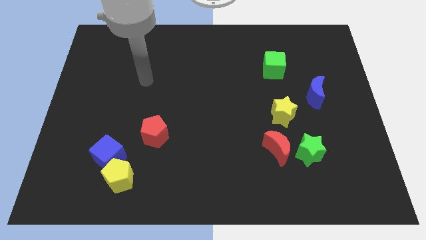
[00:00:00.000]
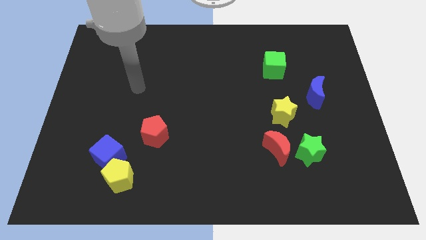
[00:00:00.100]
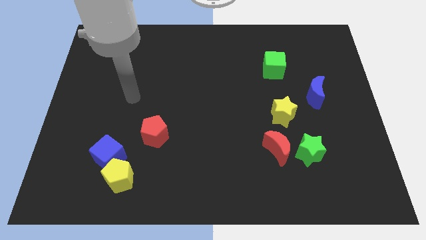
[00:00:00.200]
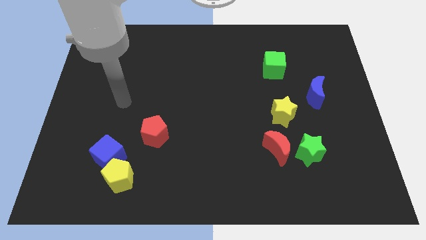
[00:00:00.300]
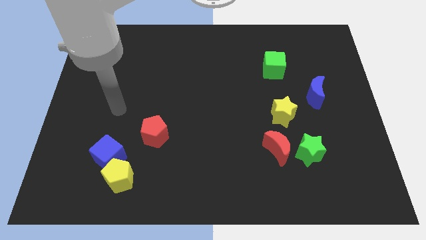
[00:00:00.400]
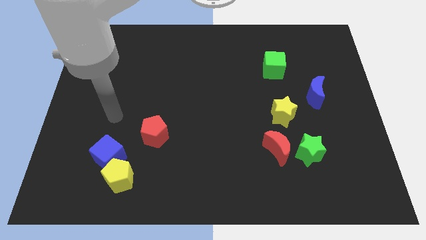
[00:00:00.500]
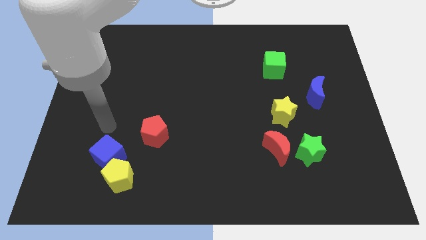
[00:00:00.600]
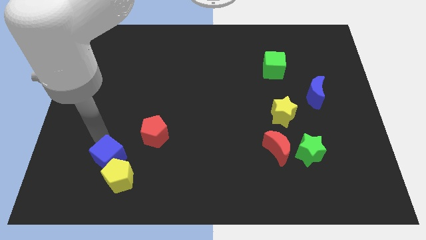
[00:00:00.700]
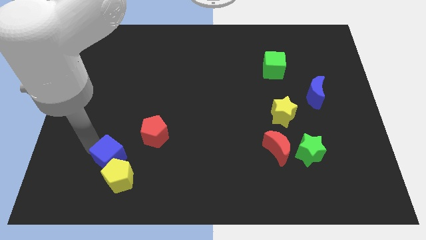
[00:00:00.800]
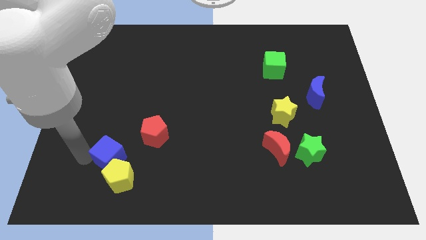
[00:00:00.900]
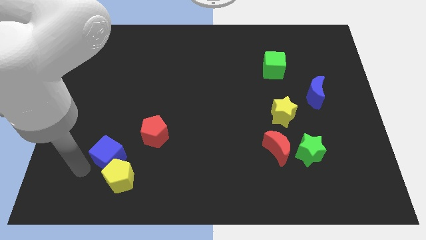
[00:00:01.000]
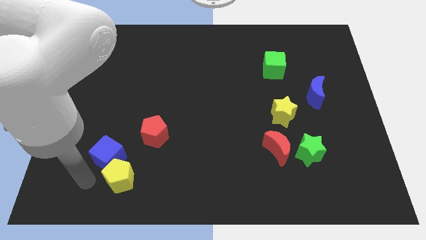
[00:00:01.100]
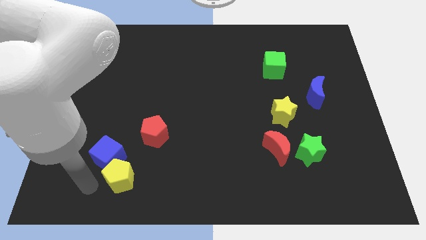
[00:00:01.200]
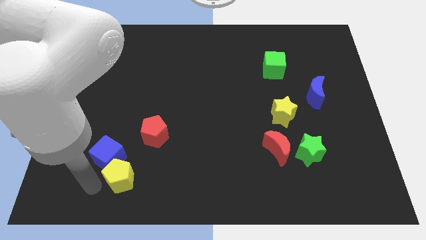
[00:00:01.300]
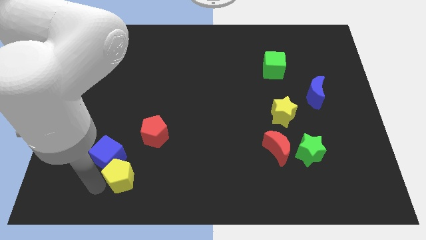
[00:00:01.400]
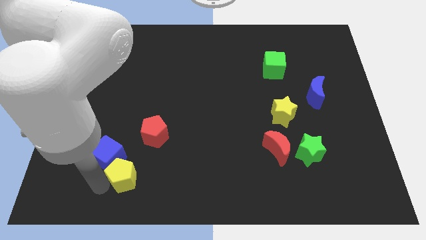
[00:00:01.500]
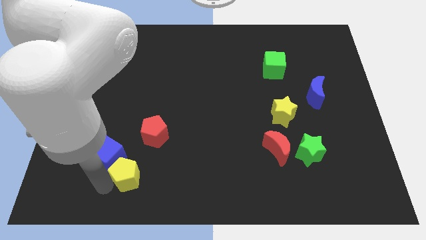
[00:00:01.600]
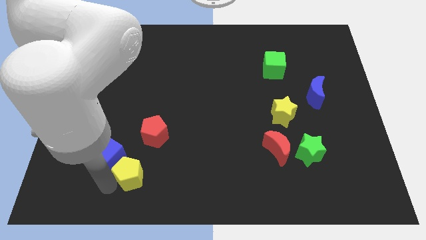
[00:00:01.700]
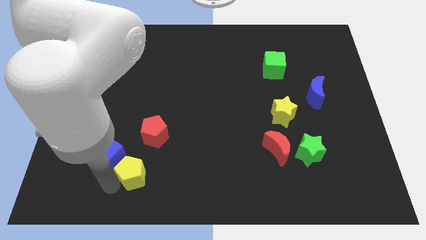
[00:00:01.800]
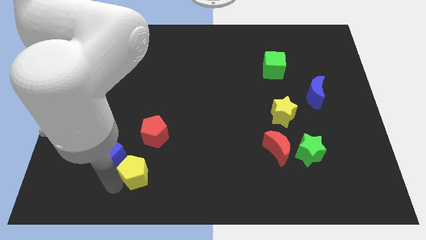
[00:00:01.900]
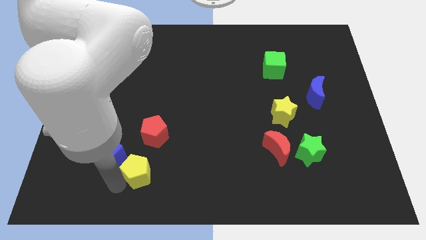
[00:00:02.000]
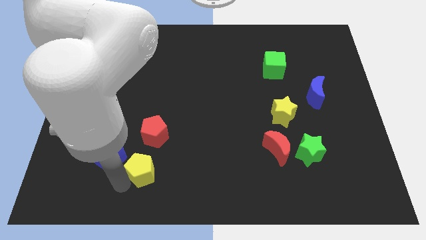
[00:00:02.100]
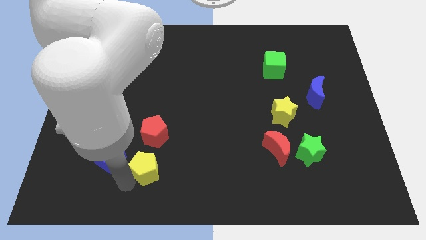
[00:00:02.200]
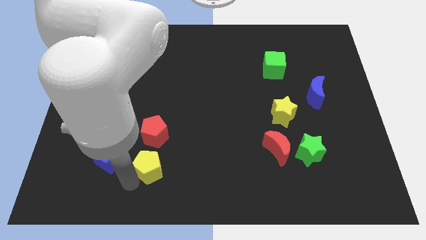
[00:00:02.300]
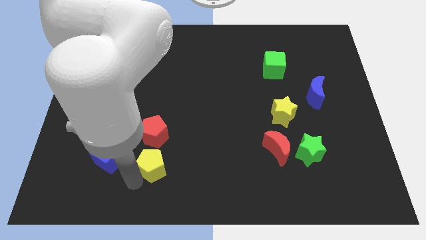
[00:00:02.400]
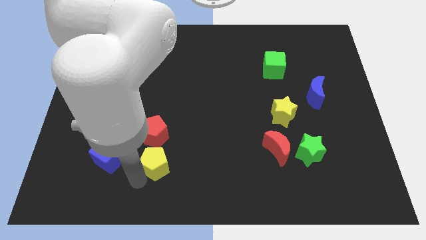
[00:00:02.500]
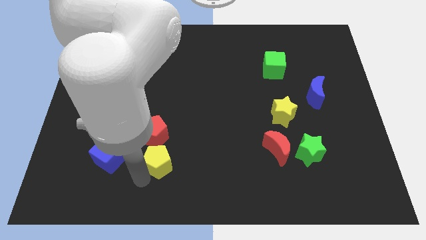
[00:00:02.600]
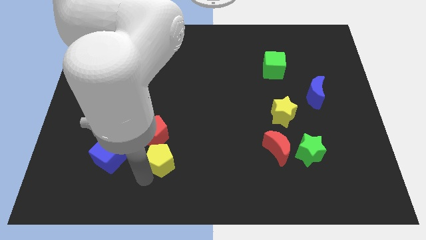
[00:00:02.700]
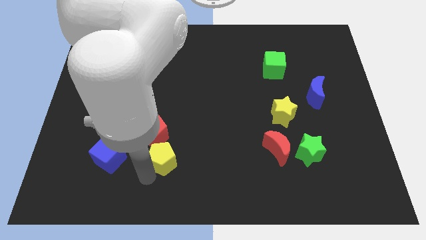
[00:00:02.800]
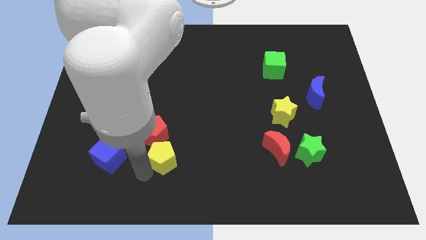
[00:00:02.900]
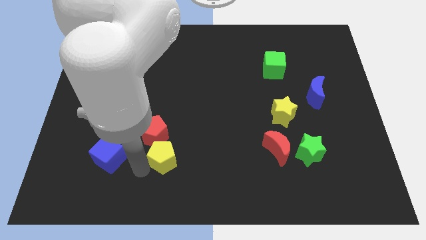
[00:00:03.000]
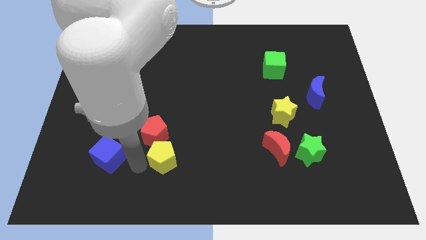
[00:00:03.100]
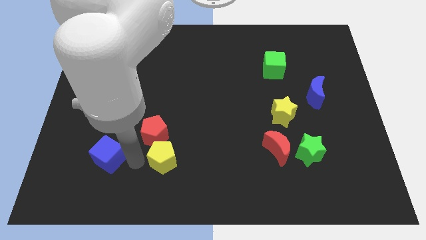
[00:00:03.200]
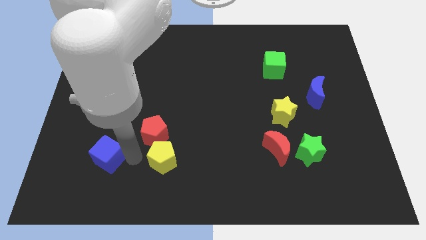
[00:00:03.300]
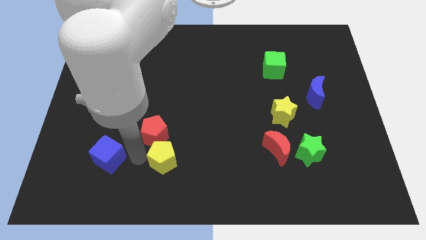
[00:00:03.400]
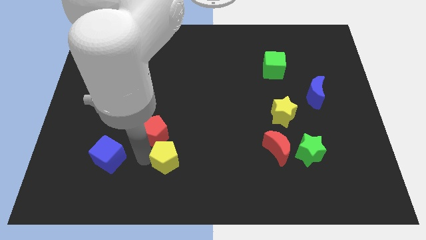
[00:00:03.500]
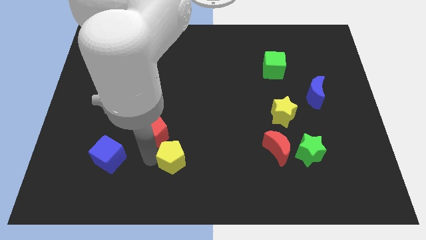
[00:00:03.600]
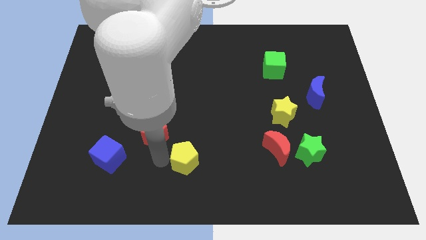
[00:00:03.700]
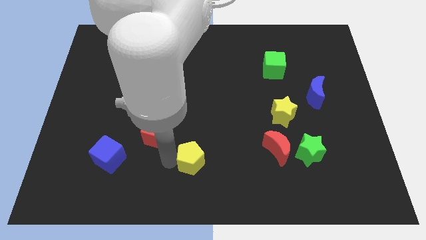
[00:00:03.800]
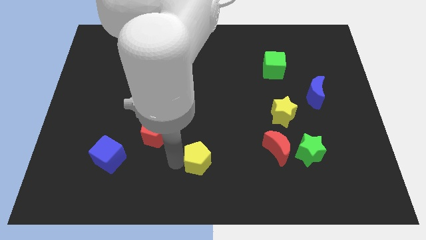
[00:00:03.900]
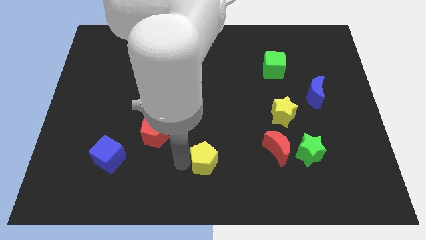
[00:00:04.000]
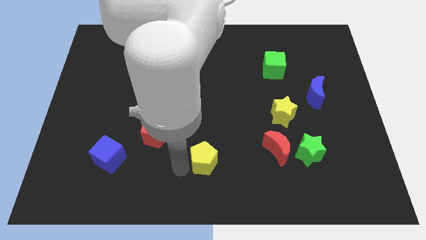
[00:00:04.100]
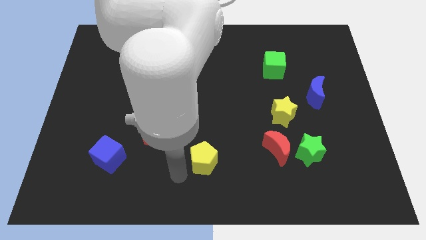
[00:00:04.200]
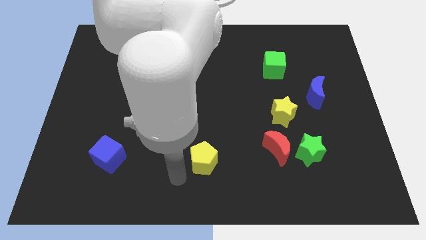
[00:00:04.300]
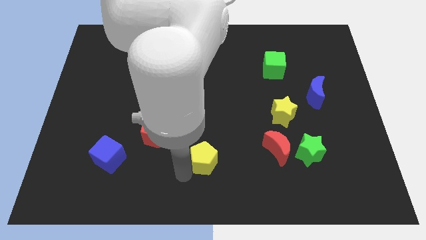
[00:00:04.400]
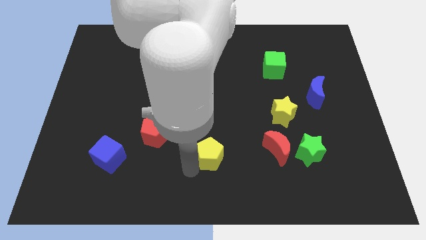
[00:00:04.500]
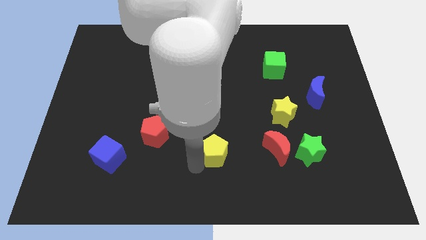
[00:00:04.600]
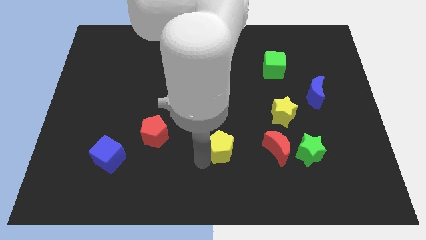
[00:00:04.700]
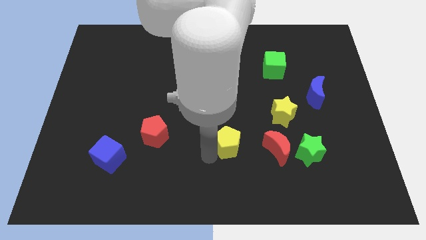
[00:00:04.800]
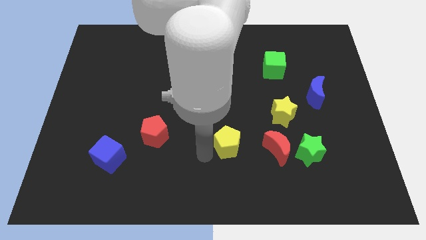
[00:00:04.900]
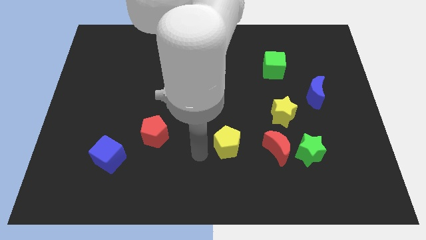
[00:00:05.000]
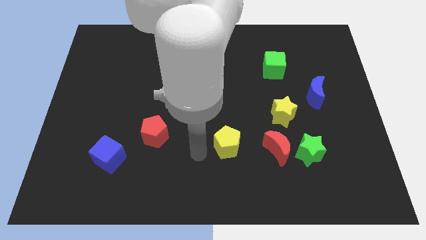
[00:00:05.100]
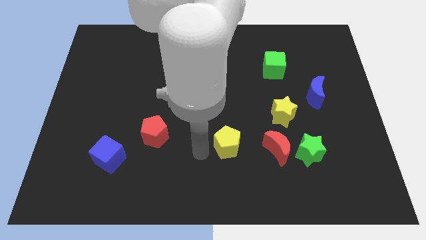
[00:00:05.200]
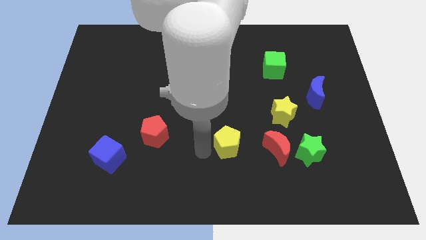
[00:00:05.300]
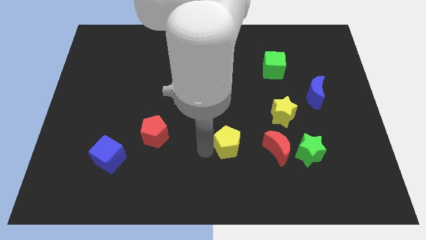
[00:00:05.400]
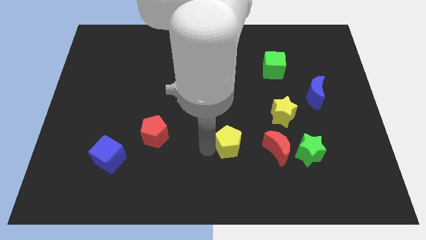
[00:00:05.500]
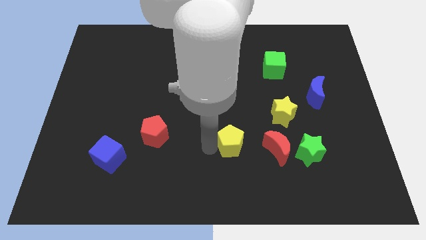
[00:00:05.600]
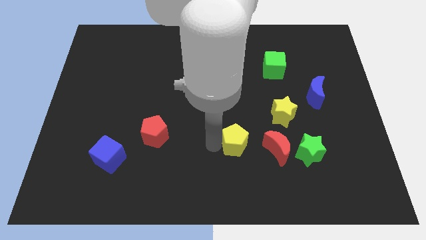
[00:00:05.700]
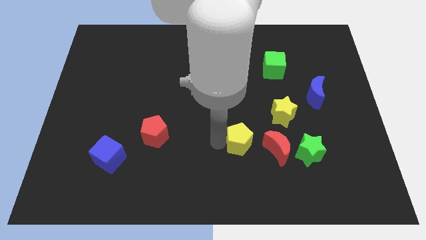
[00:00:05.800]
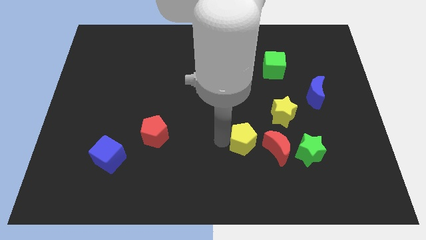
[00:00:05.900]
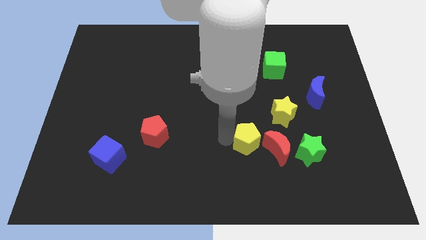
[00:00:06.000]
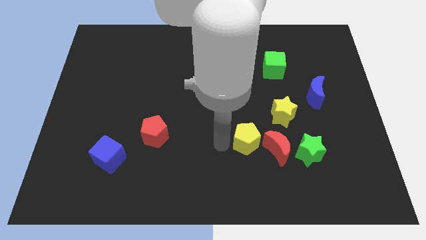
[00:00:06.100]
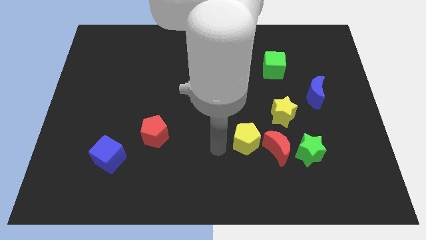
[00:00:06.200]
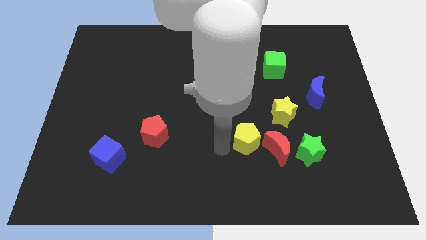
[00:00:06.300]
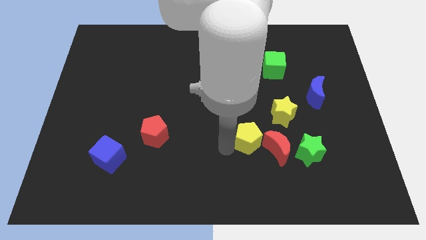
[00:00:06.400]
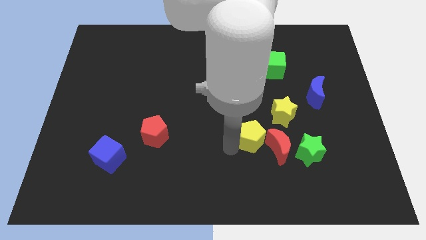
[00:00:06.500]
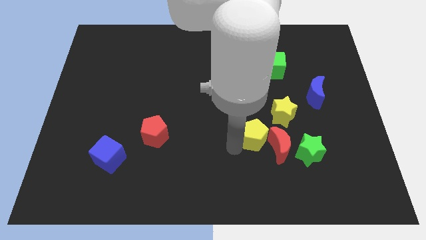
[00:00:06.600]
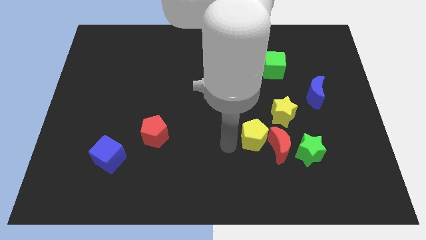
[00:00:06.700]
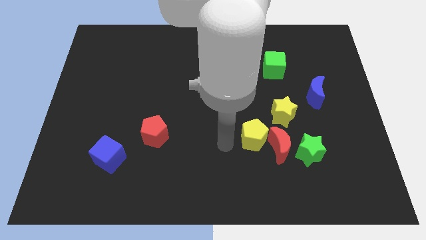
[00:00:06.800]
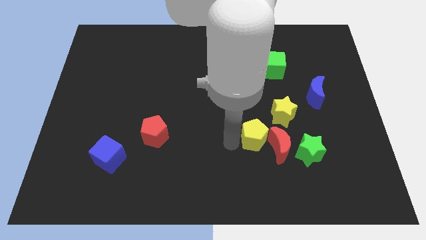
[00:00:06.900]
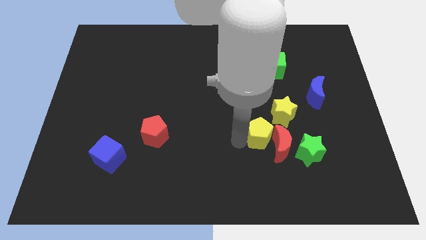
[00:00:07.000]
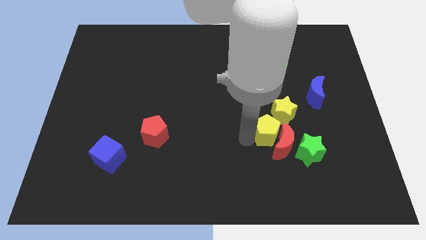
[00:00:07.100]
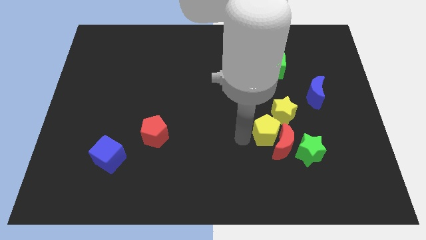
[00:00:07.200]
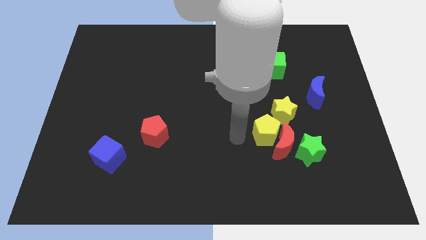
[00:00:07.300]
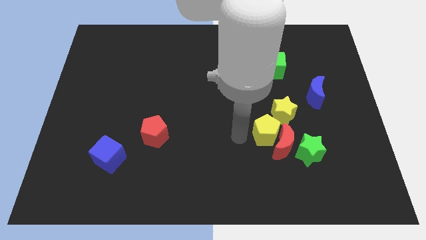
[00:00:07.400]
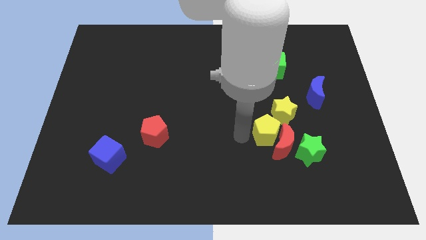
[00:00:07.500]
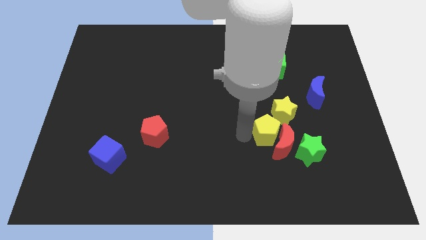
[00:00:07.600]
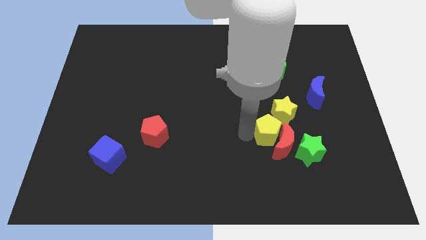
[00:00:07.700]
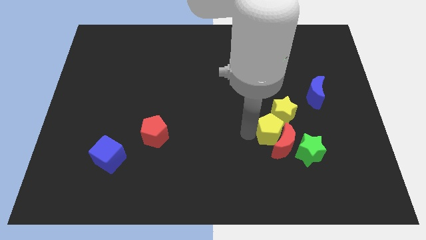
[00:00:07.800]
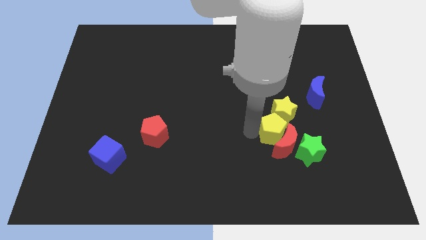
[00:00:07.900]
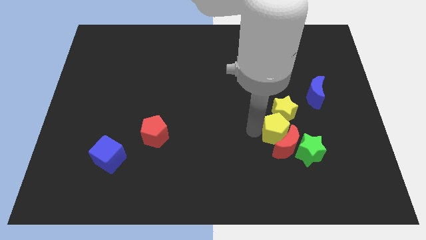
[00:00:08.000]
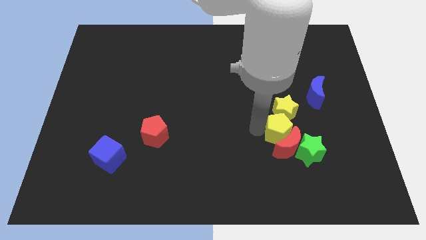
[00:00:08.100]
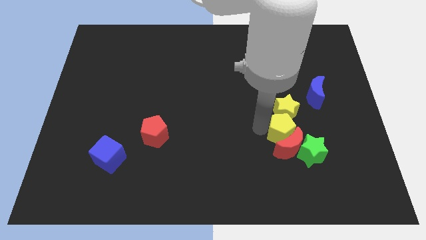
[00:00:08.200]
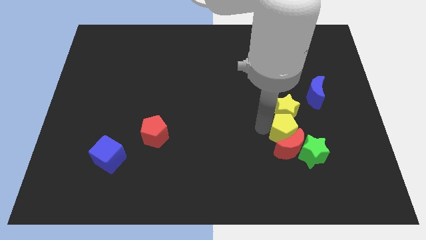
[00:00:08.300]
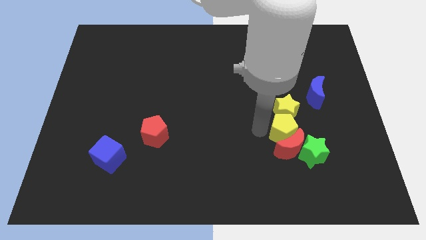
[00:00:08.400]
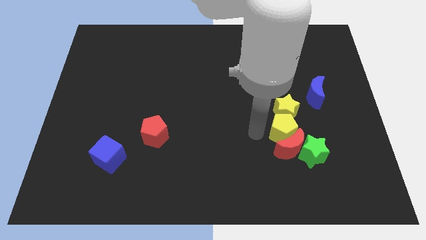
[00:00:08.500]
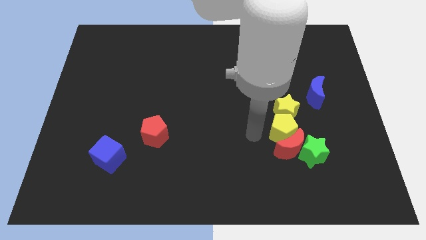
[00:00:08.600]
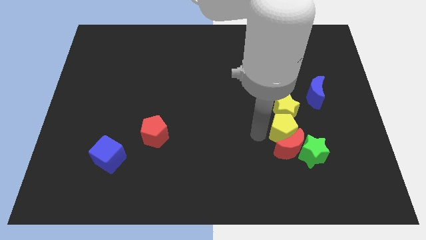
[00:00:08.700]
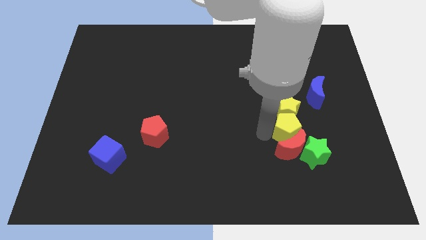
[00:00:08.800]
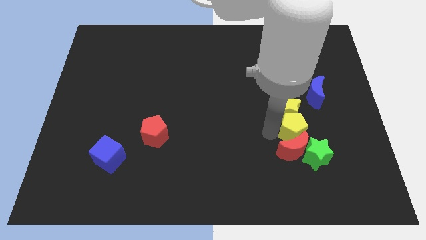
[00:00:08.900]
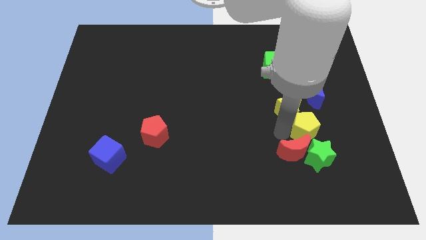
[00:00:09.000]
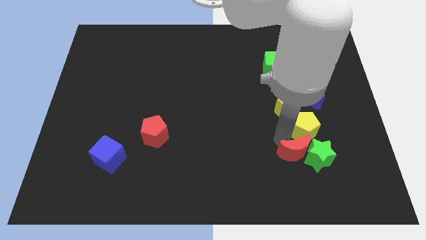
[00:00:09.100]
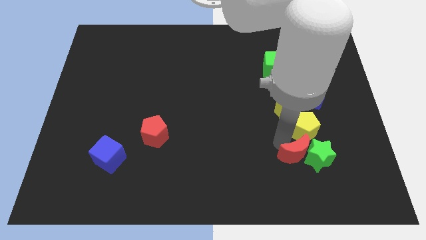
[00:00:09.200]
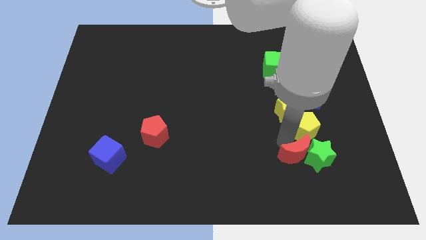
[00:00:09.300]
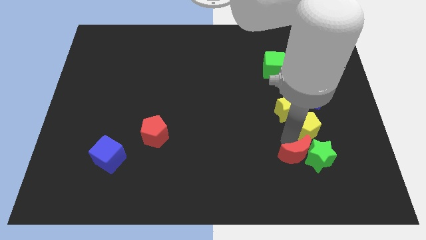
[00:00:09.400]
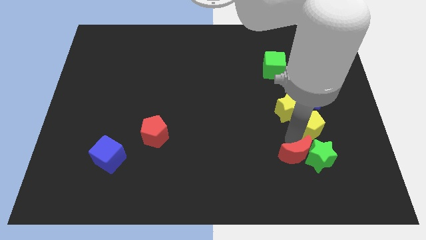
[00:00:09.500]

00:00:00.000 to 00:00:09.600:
move the yellow pentagon right of the yellow star
